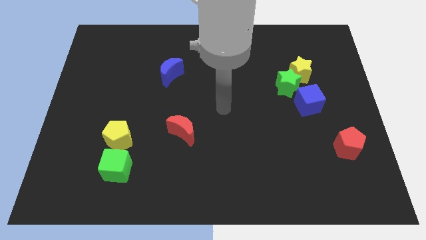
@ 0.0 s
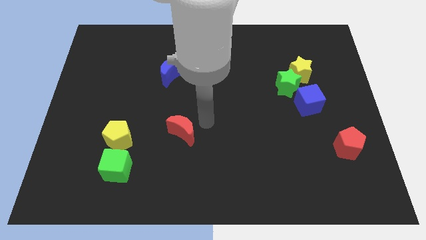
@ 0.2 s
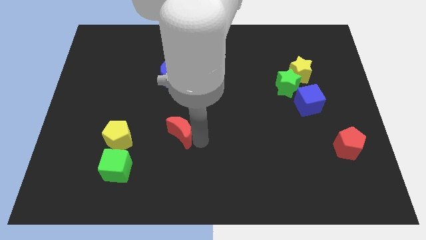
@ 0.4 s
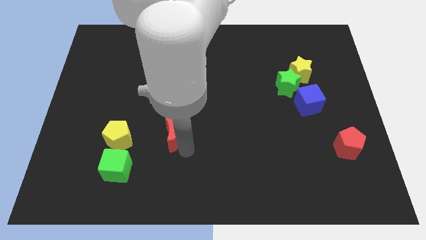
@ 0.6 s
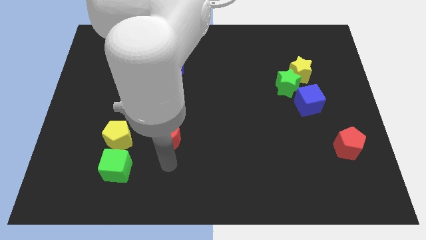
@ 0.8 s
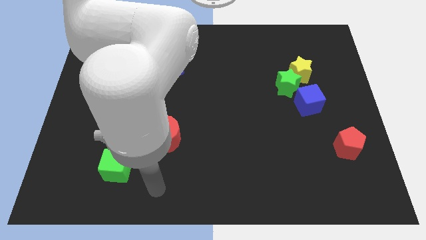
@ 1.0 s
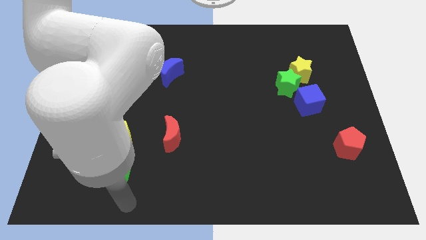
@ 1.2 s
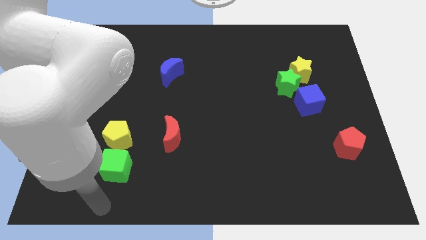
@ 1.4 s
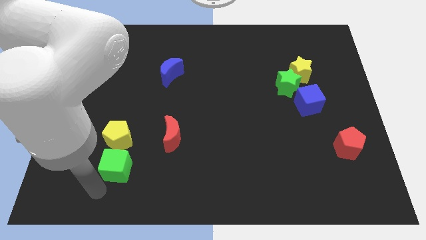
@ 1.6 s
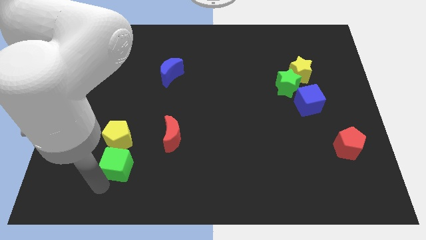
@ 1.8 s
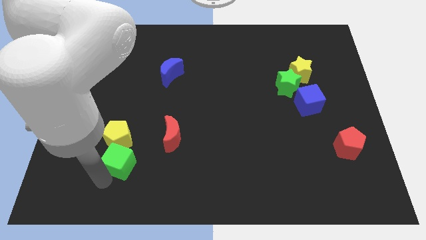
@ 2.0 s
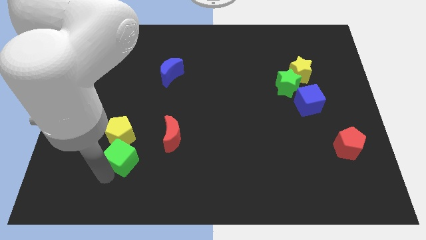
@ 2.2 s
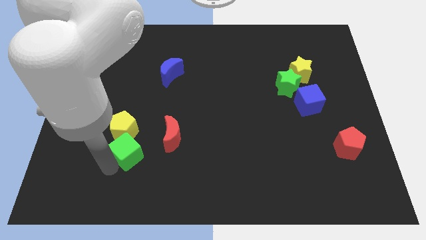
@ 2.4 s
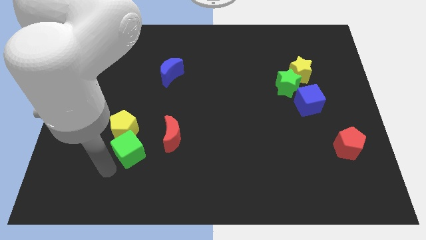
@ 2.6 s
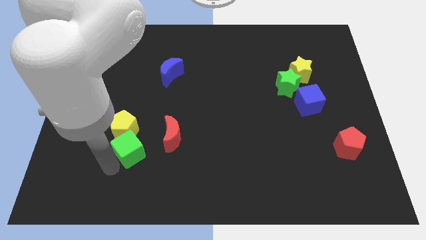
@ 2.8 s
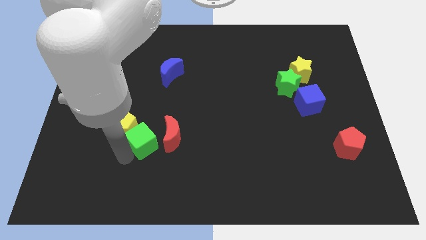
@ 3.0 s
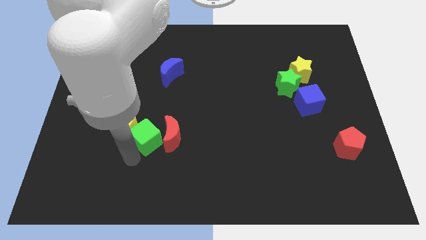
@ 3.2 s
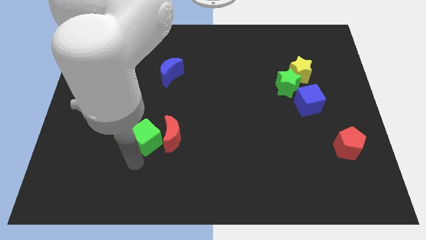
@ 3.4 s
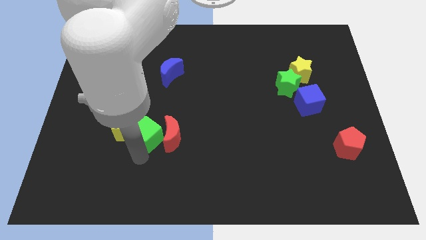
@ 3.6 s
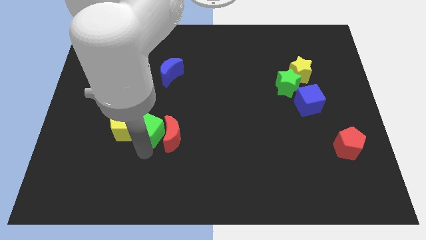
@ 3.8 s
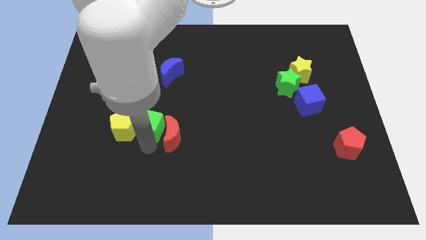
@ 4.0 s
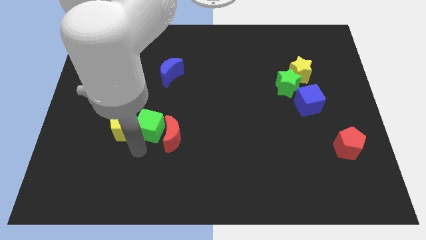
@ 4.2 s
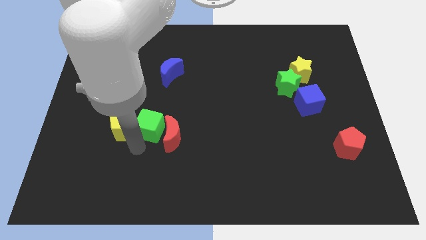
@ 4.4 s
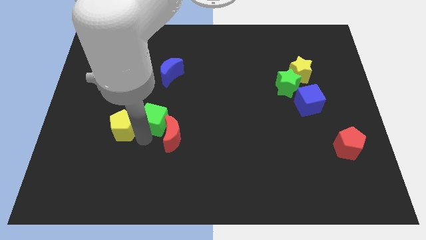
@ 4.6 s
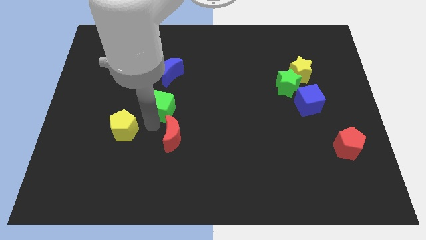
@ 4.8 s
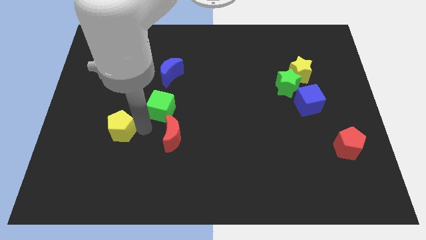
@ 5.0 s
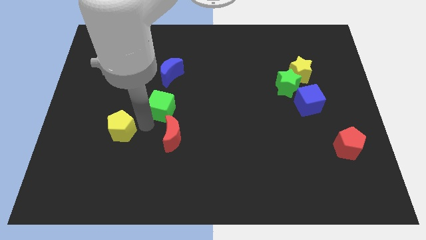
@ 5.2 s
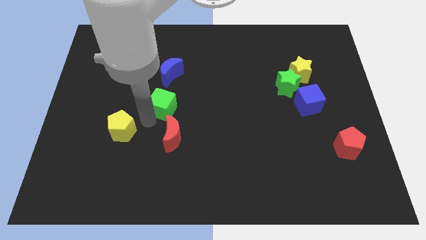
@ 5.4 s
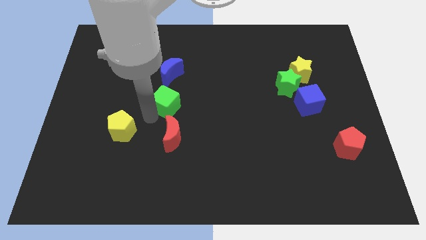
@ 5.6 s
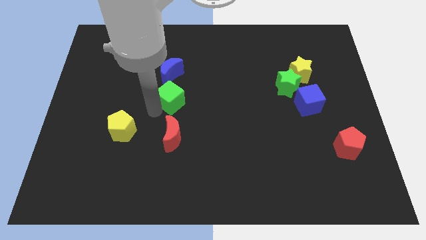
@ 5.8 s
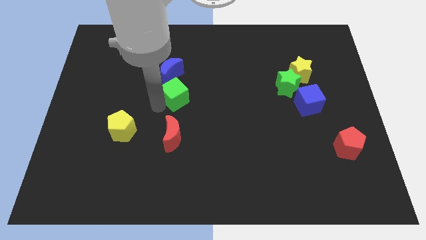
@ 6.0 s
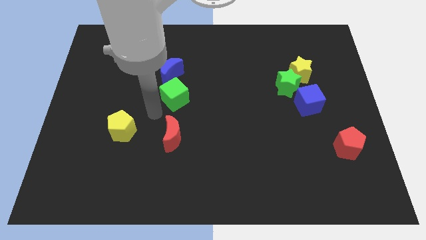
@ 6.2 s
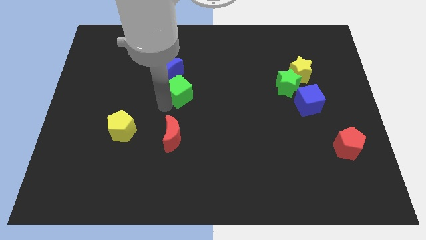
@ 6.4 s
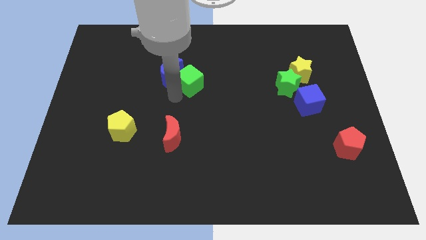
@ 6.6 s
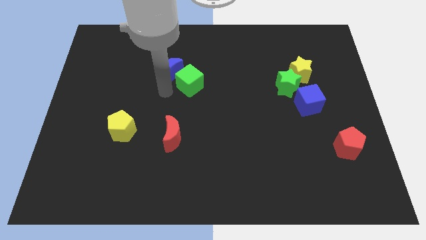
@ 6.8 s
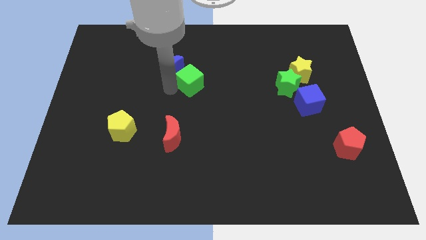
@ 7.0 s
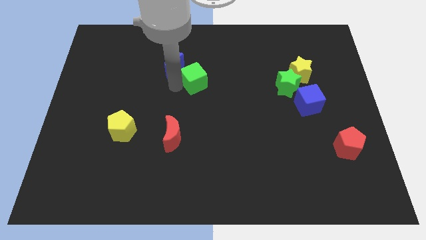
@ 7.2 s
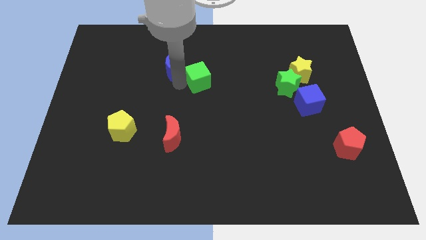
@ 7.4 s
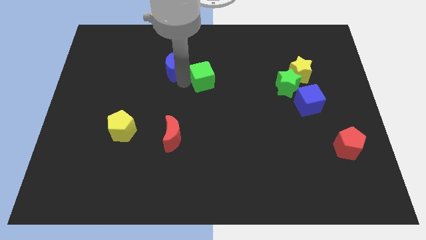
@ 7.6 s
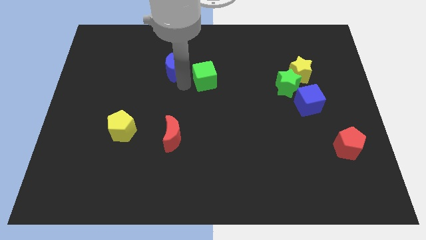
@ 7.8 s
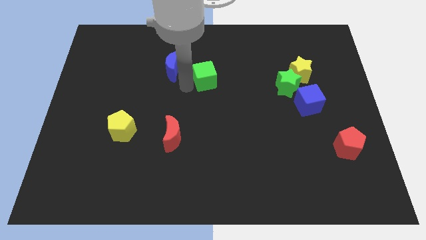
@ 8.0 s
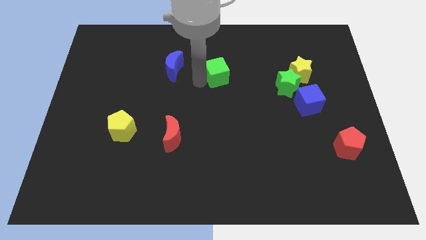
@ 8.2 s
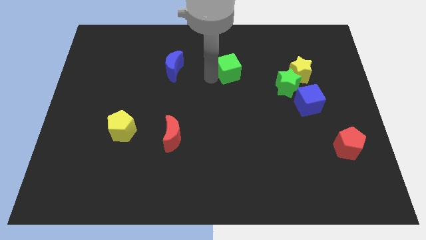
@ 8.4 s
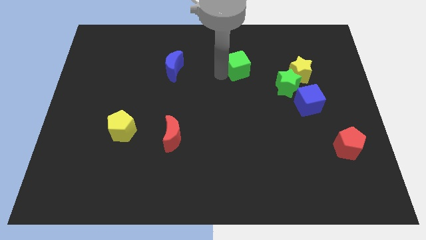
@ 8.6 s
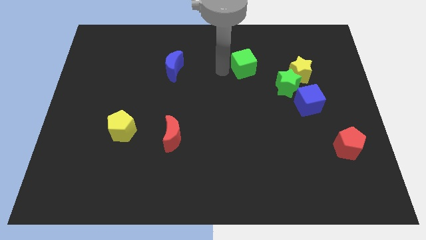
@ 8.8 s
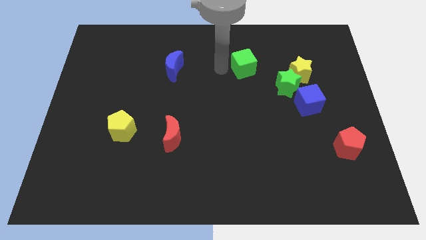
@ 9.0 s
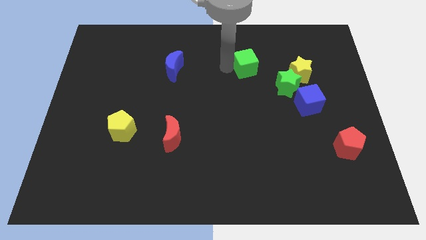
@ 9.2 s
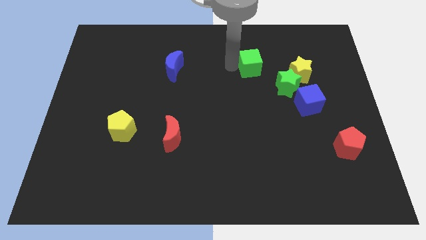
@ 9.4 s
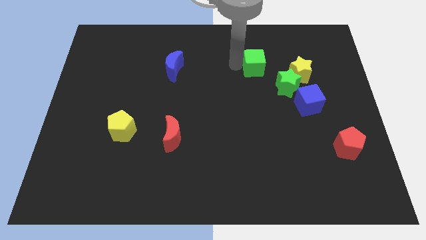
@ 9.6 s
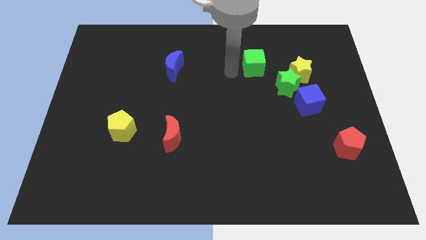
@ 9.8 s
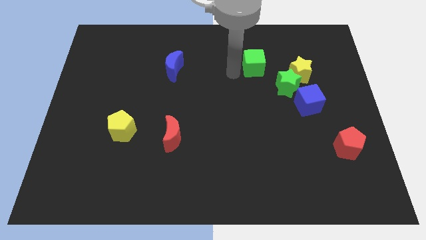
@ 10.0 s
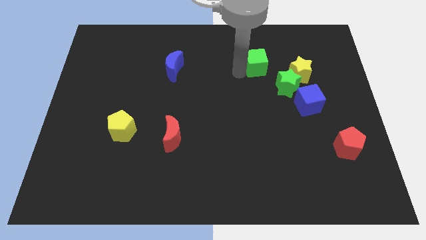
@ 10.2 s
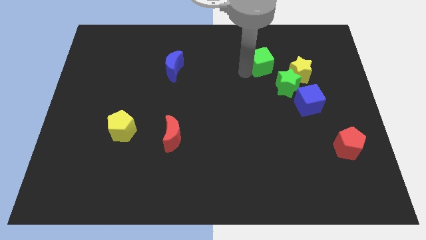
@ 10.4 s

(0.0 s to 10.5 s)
move the green cube to the top left side of the yellow star

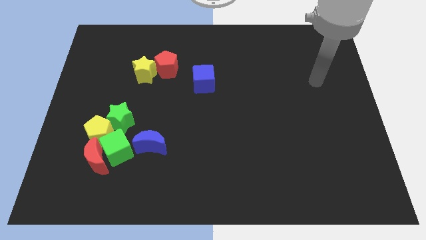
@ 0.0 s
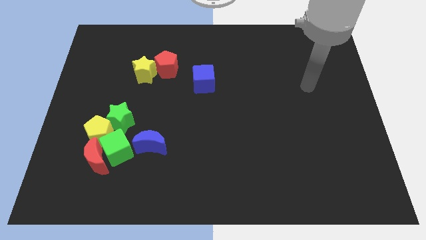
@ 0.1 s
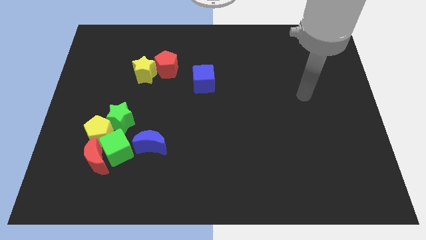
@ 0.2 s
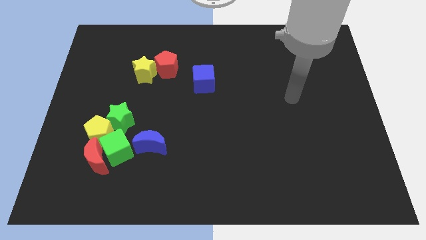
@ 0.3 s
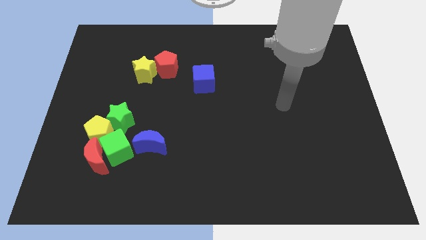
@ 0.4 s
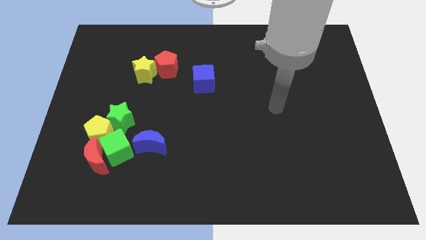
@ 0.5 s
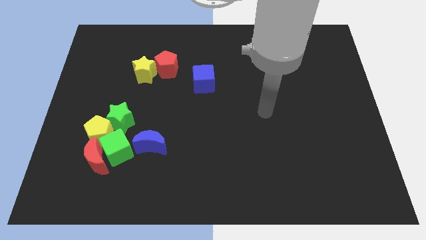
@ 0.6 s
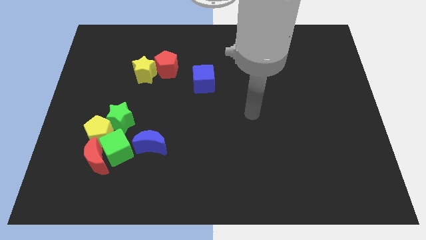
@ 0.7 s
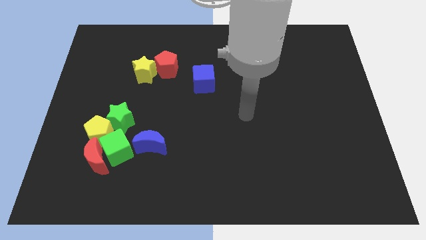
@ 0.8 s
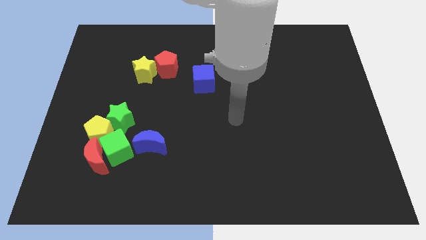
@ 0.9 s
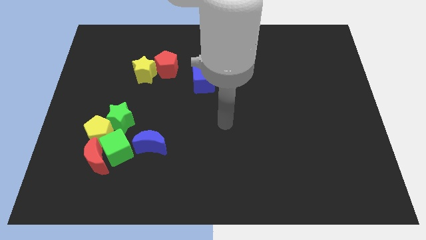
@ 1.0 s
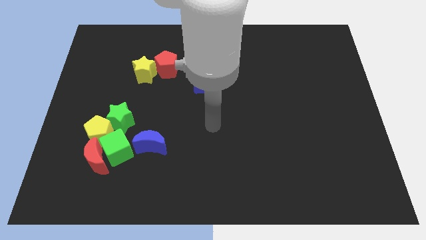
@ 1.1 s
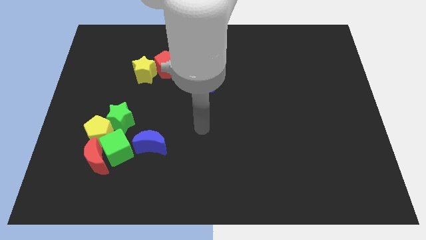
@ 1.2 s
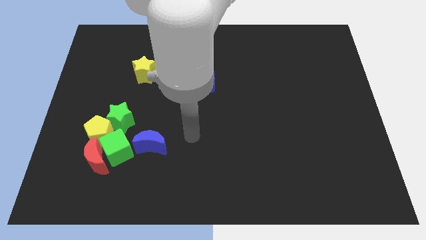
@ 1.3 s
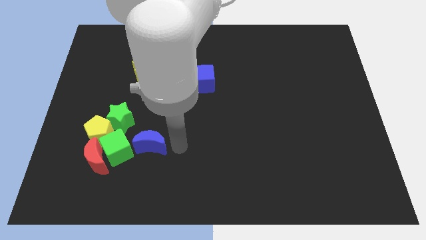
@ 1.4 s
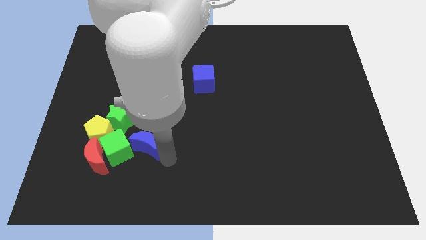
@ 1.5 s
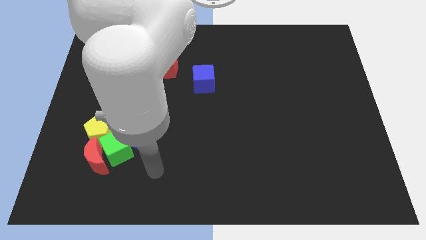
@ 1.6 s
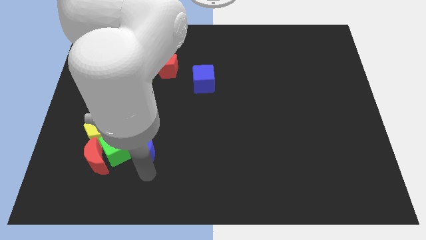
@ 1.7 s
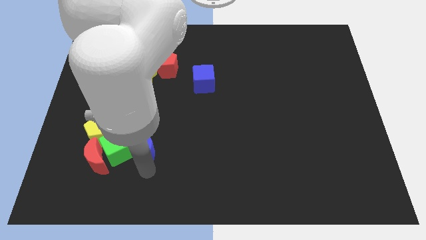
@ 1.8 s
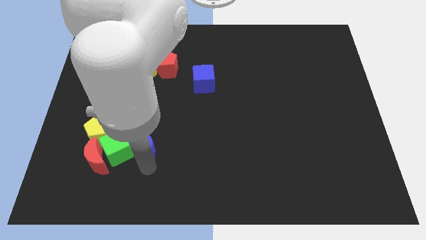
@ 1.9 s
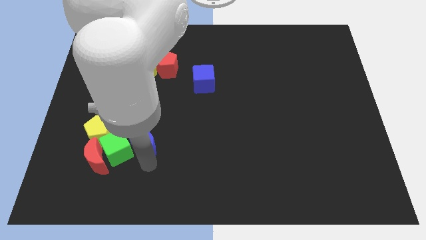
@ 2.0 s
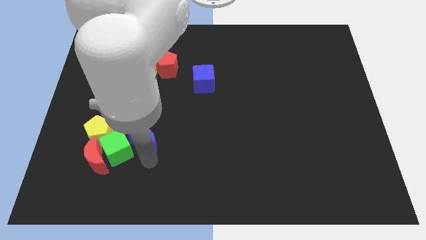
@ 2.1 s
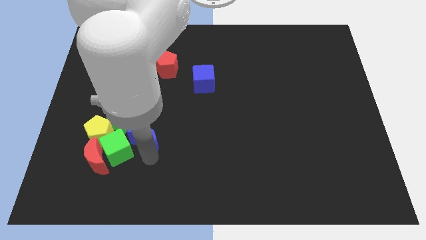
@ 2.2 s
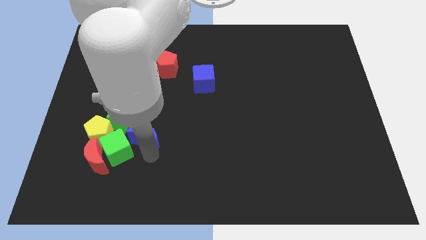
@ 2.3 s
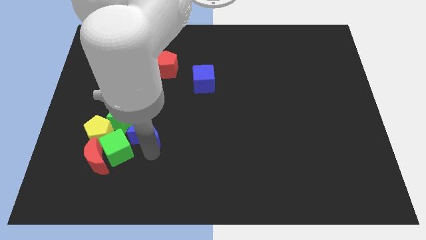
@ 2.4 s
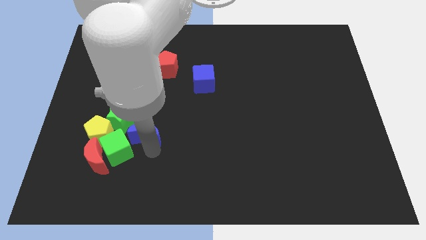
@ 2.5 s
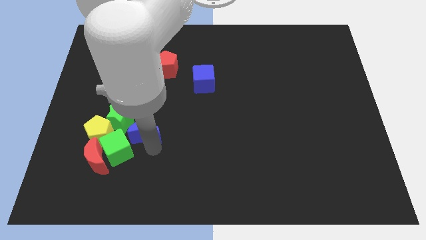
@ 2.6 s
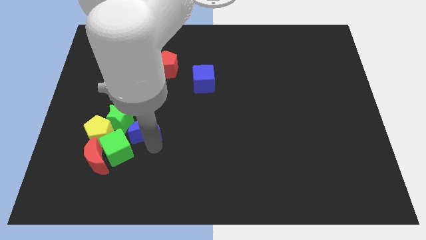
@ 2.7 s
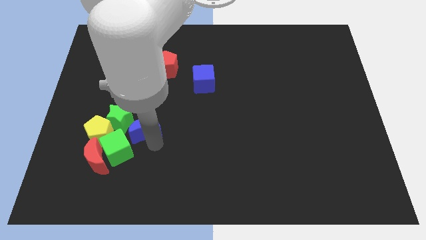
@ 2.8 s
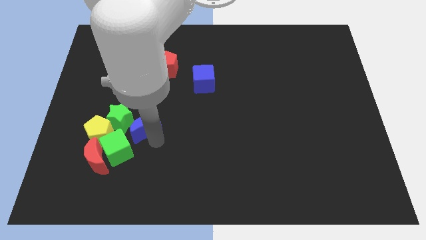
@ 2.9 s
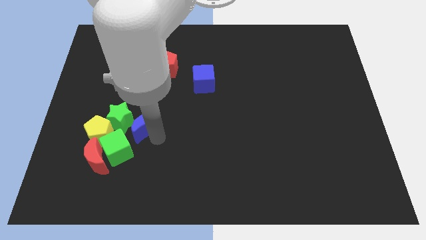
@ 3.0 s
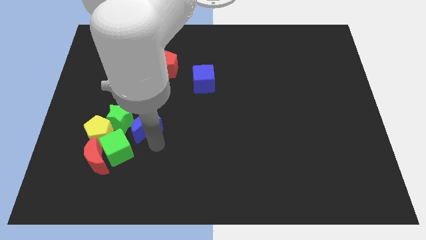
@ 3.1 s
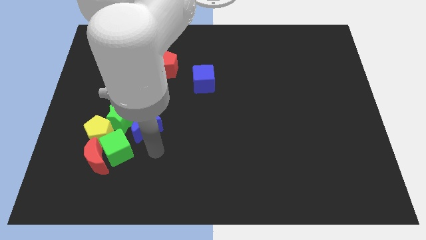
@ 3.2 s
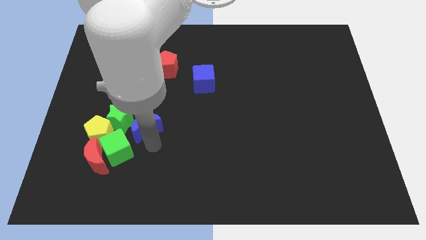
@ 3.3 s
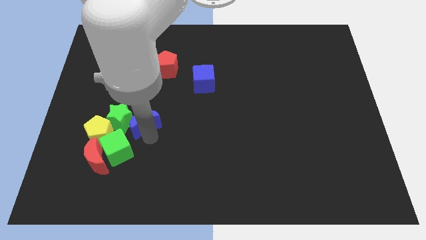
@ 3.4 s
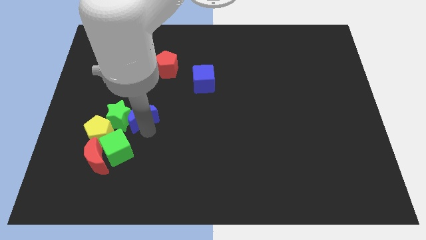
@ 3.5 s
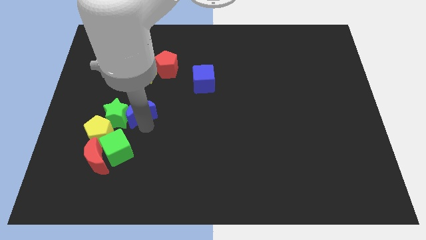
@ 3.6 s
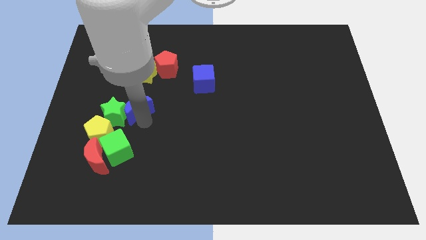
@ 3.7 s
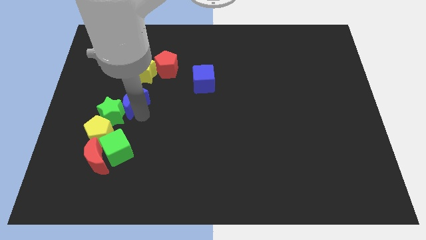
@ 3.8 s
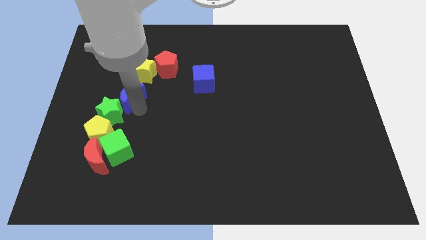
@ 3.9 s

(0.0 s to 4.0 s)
put the blue moon to the bottom left of the yellow star
